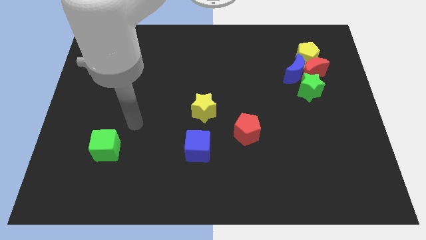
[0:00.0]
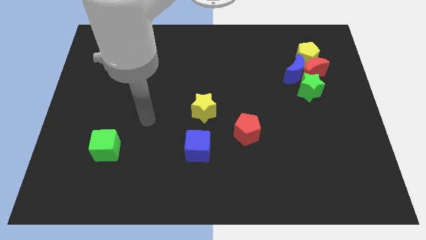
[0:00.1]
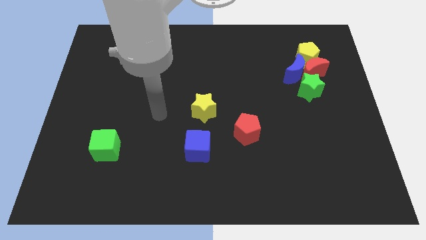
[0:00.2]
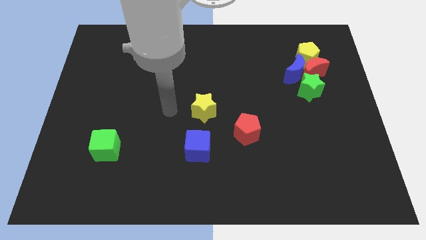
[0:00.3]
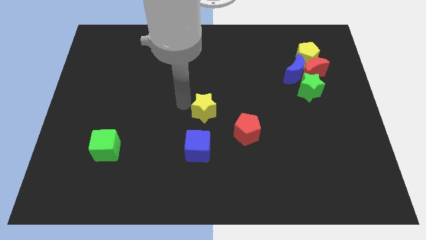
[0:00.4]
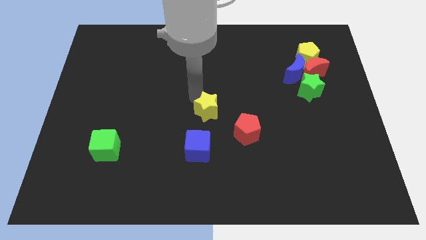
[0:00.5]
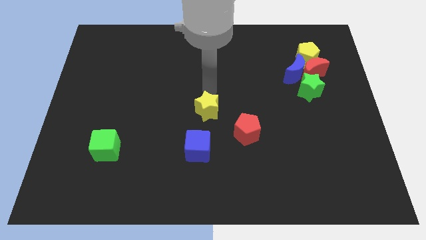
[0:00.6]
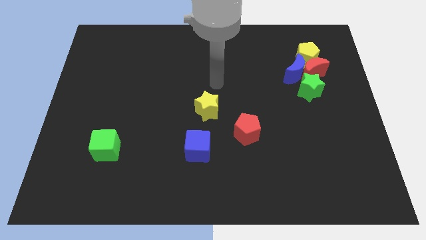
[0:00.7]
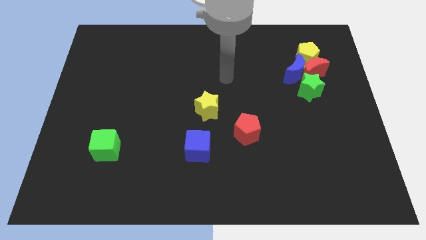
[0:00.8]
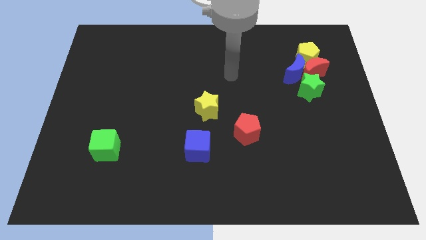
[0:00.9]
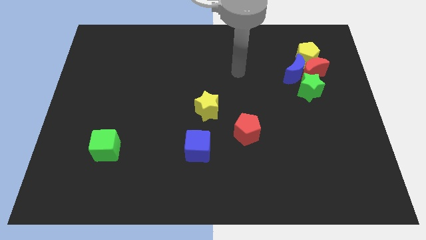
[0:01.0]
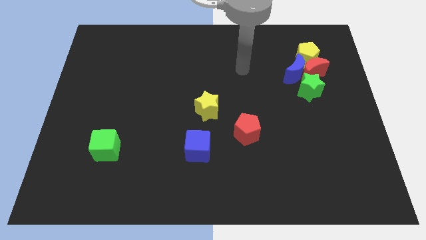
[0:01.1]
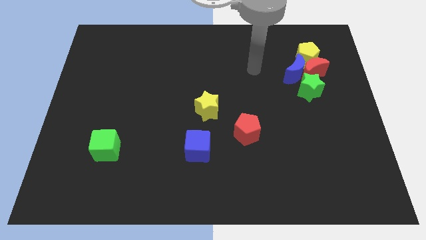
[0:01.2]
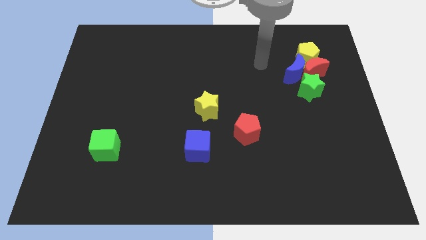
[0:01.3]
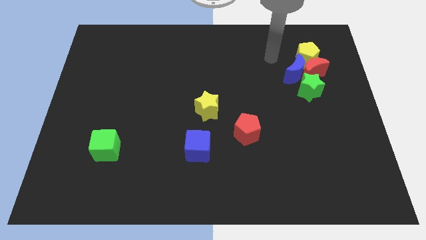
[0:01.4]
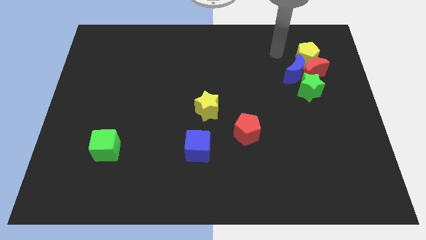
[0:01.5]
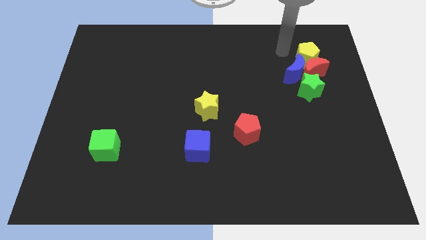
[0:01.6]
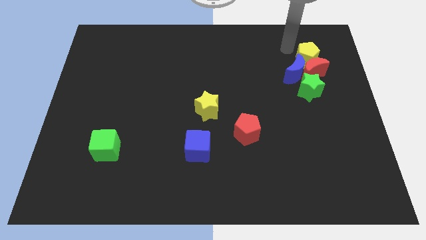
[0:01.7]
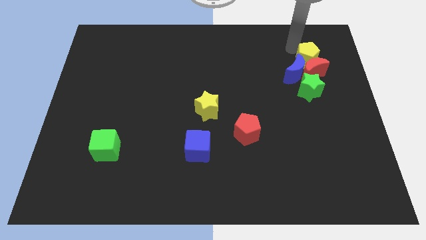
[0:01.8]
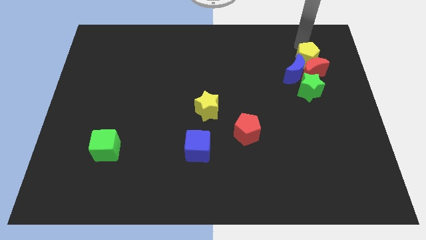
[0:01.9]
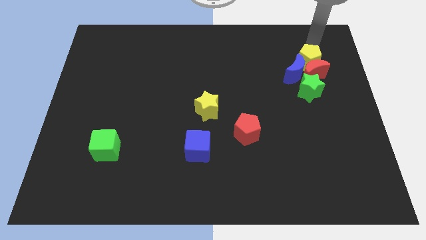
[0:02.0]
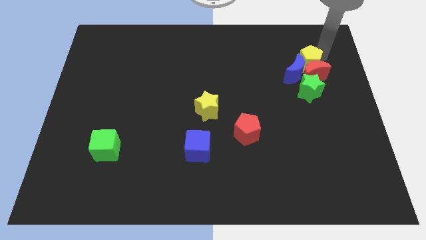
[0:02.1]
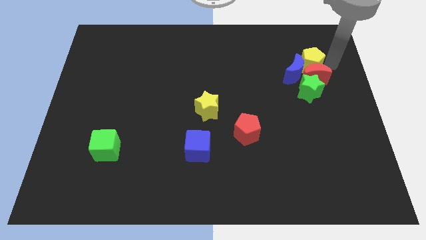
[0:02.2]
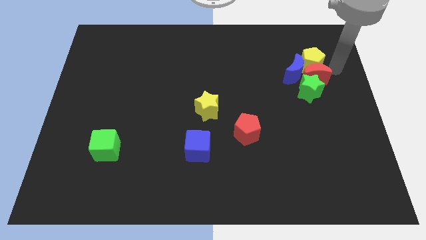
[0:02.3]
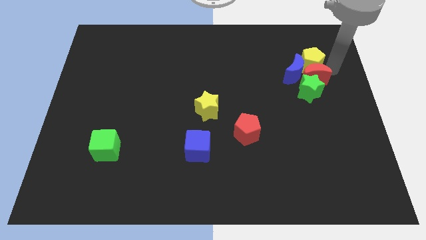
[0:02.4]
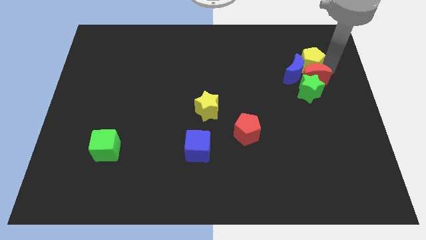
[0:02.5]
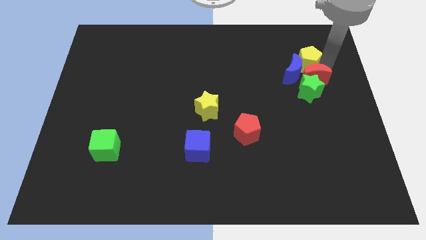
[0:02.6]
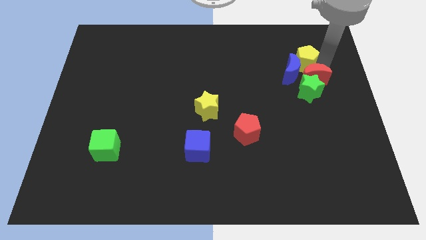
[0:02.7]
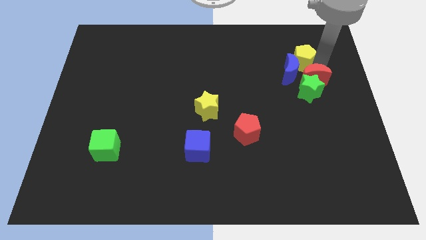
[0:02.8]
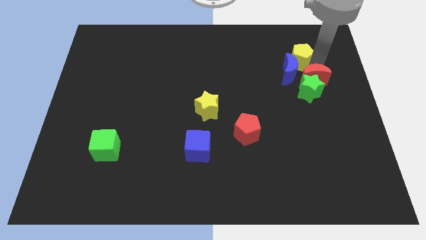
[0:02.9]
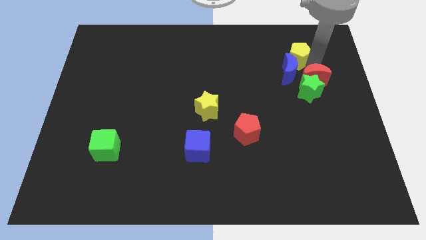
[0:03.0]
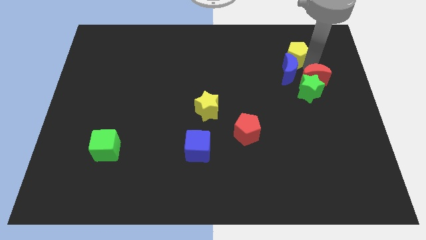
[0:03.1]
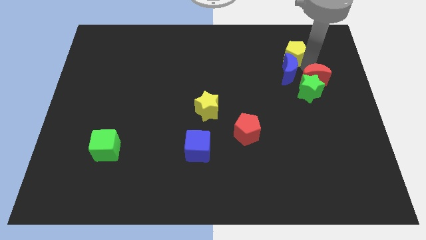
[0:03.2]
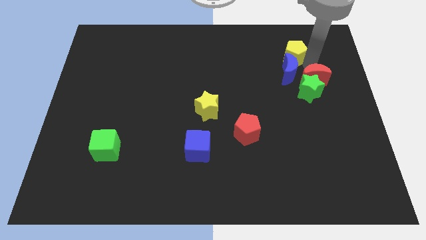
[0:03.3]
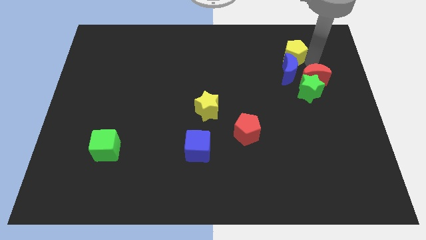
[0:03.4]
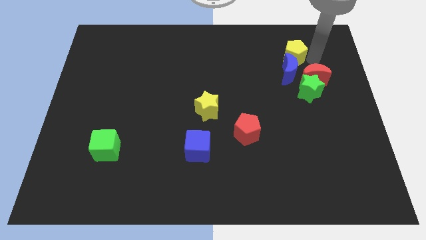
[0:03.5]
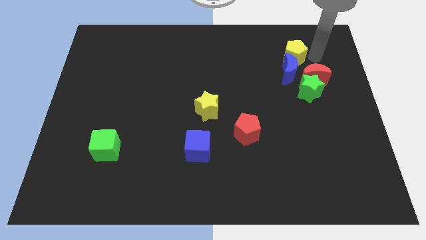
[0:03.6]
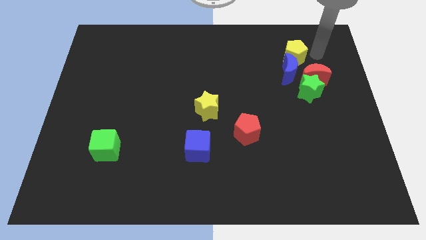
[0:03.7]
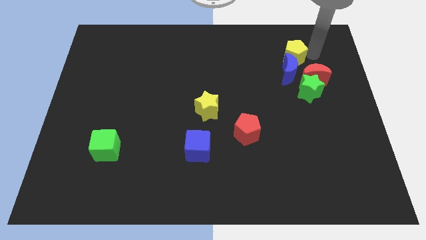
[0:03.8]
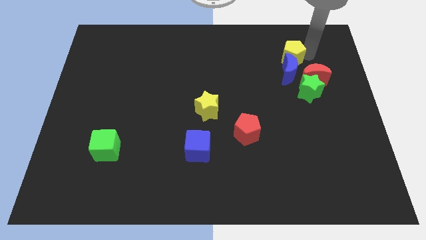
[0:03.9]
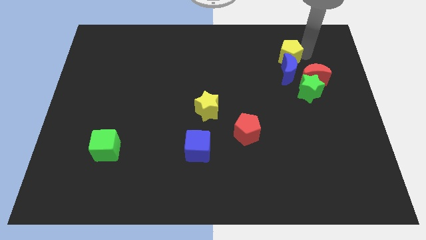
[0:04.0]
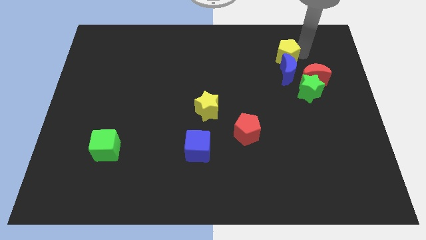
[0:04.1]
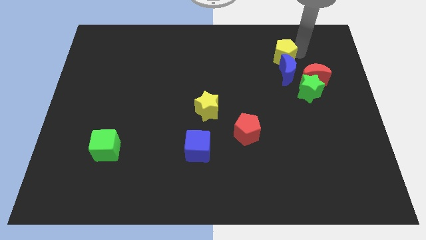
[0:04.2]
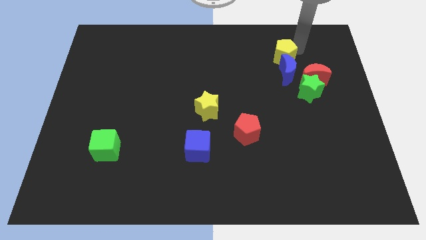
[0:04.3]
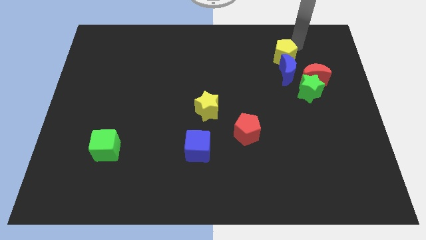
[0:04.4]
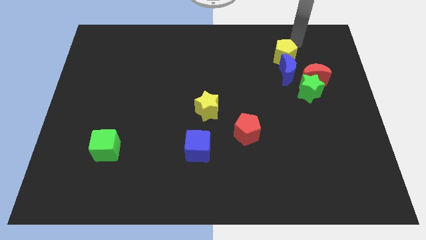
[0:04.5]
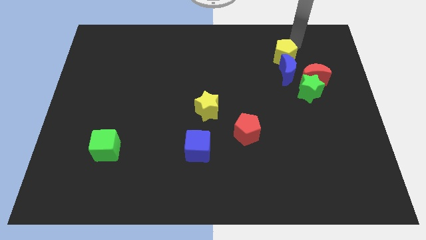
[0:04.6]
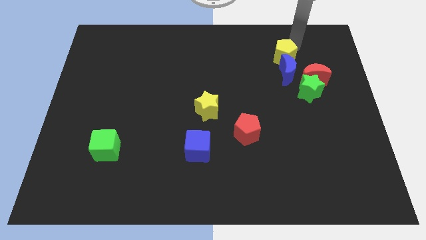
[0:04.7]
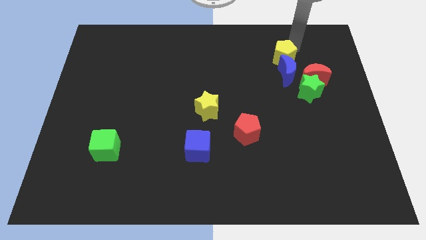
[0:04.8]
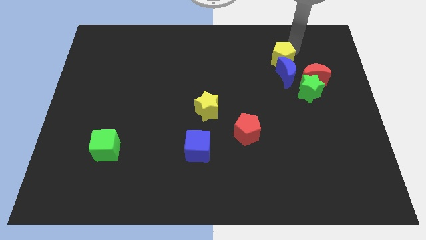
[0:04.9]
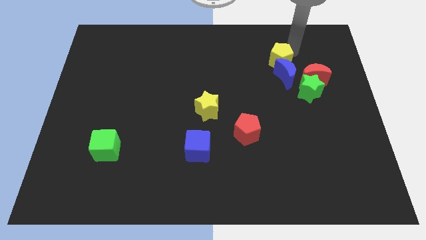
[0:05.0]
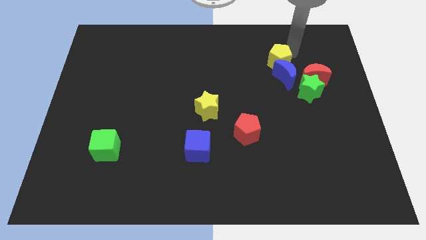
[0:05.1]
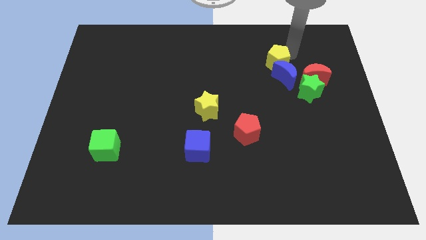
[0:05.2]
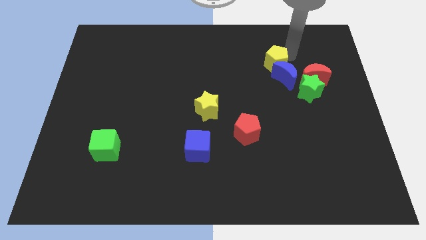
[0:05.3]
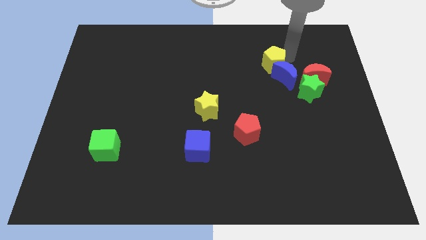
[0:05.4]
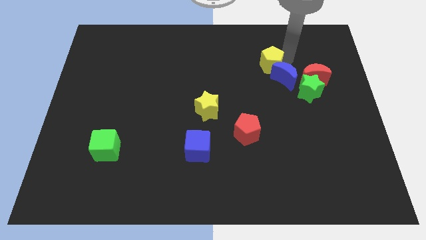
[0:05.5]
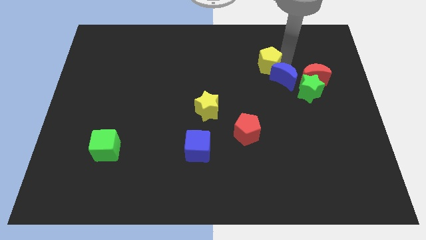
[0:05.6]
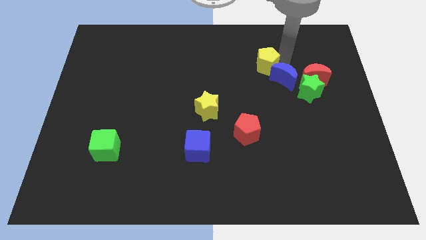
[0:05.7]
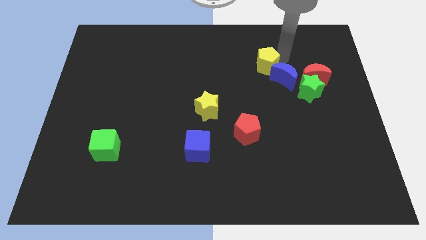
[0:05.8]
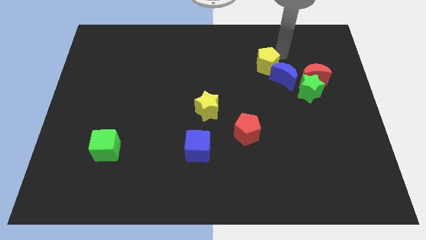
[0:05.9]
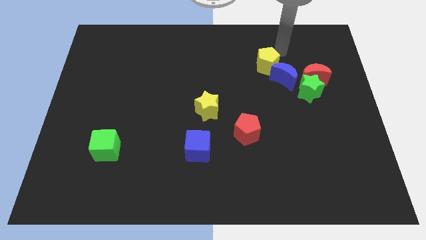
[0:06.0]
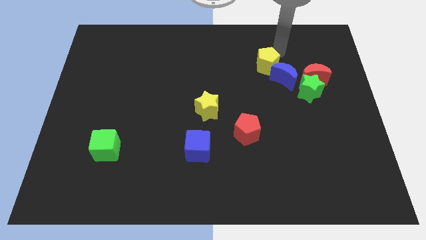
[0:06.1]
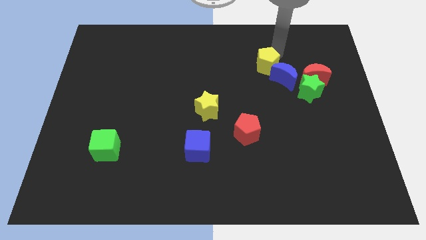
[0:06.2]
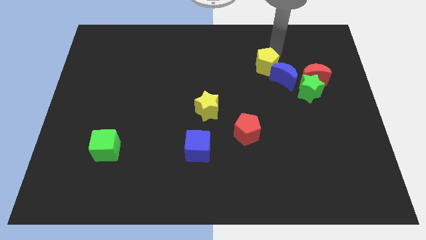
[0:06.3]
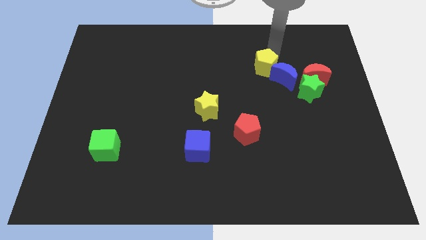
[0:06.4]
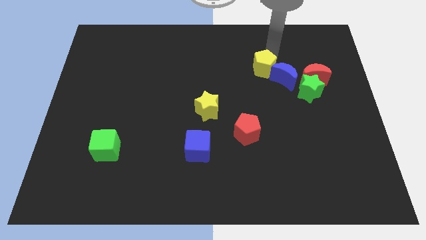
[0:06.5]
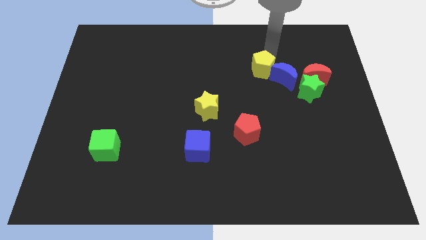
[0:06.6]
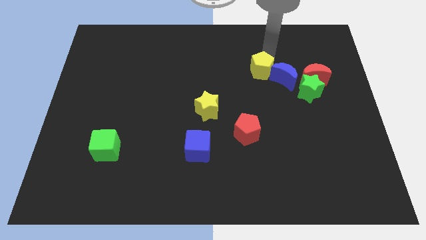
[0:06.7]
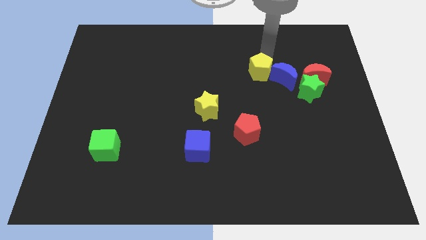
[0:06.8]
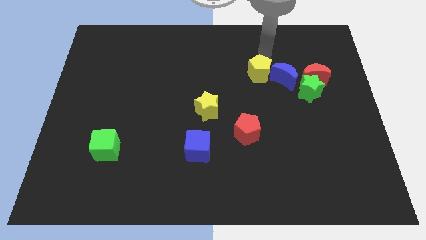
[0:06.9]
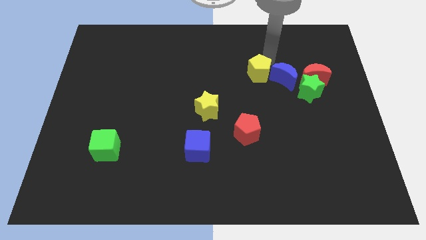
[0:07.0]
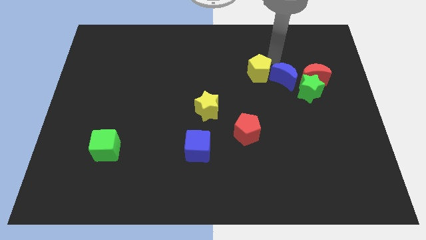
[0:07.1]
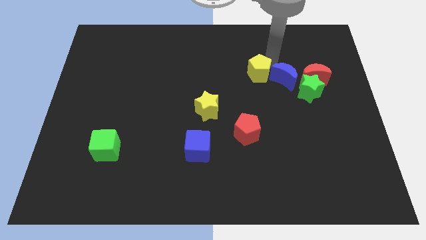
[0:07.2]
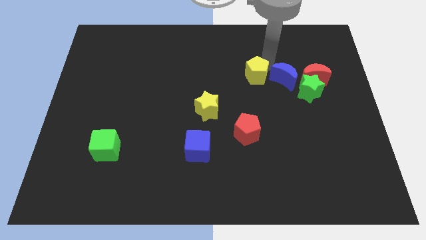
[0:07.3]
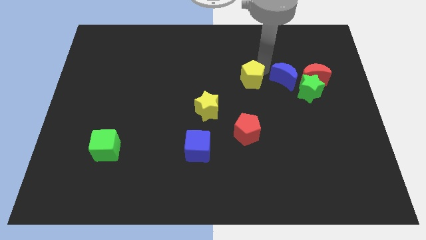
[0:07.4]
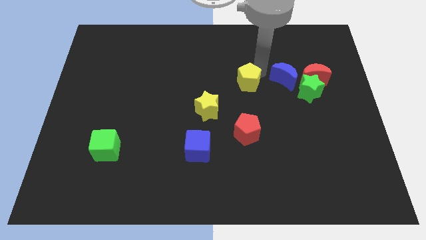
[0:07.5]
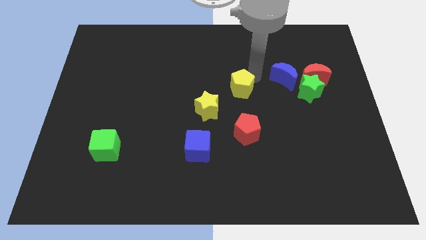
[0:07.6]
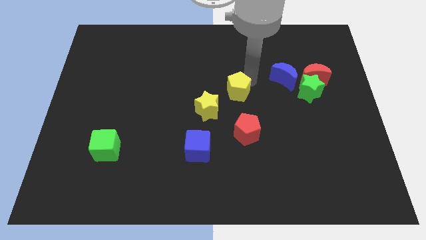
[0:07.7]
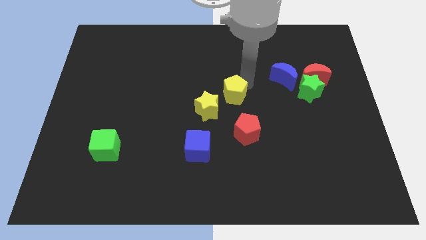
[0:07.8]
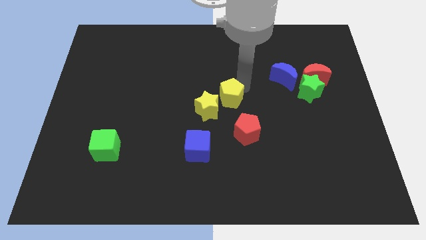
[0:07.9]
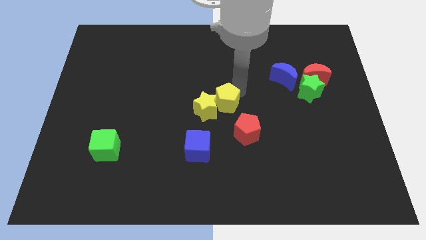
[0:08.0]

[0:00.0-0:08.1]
put the yellow pentagon next to the yellow star
